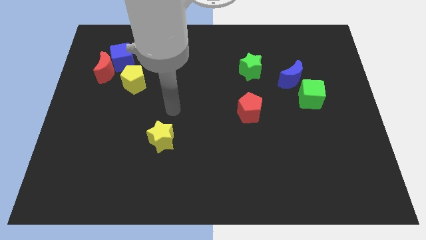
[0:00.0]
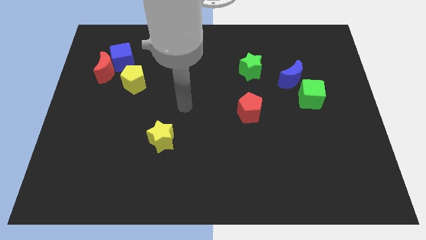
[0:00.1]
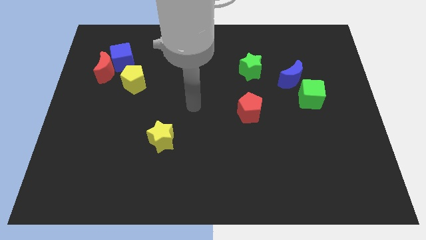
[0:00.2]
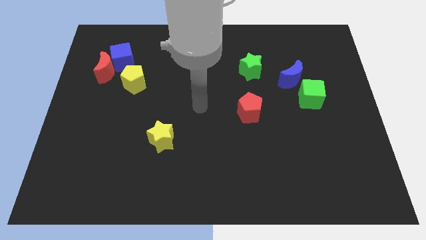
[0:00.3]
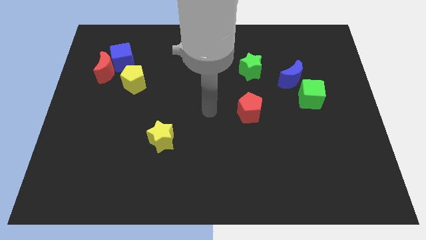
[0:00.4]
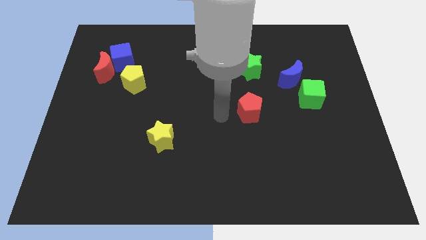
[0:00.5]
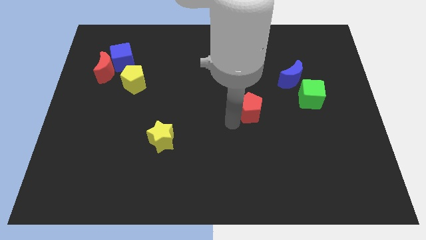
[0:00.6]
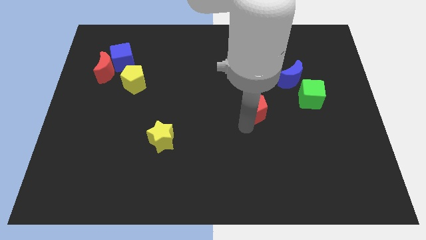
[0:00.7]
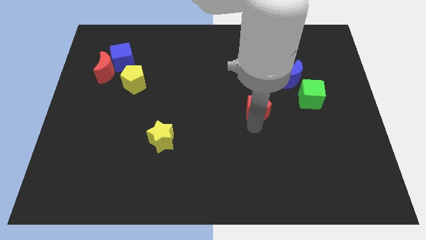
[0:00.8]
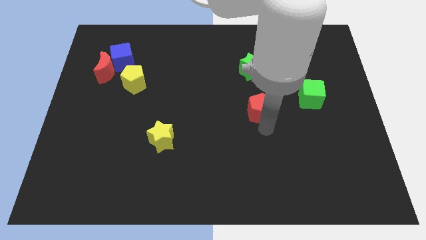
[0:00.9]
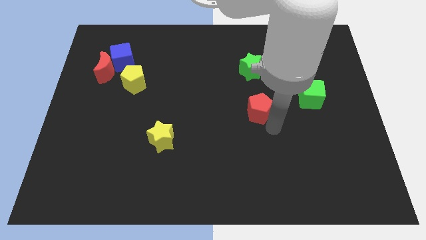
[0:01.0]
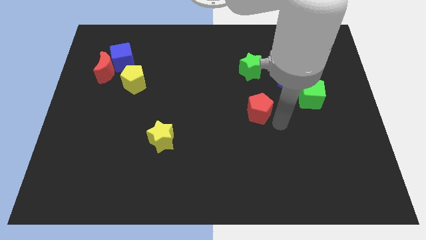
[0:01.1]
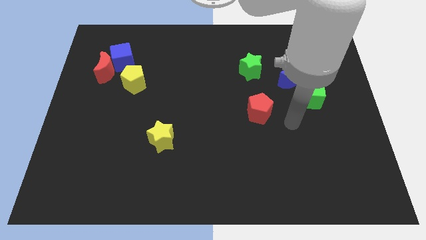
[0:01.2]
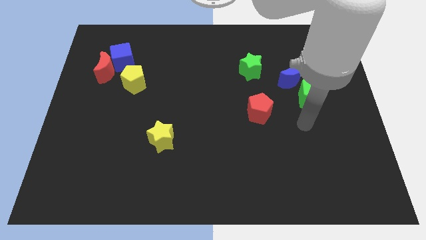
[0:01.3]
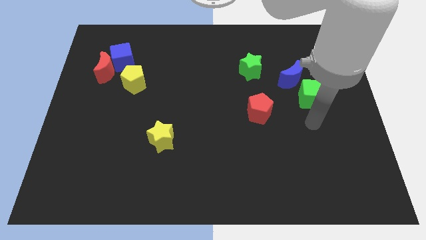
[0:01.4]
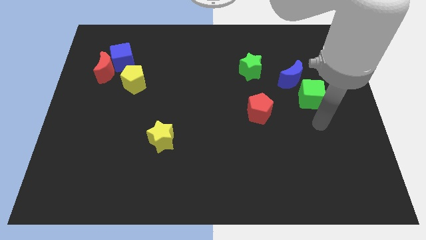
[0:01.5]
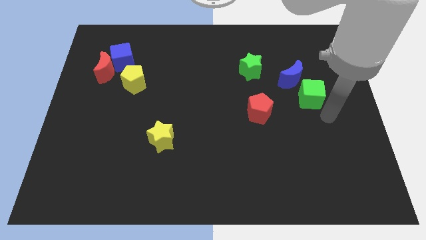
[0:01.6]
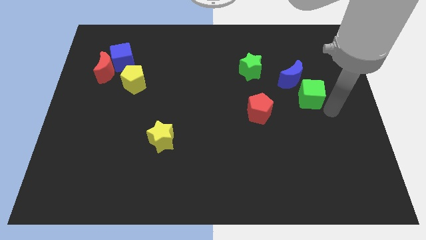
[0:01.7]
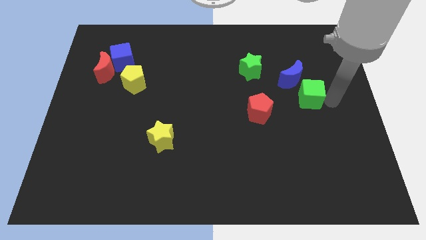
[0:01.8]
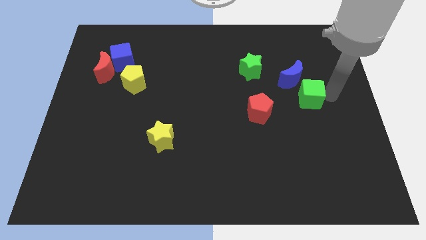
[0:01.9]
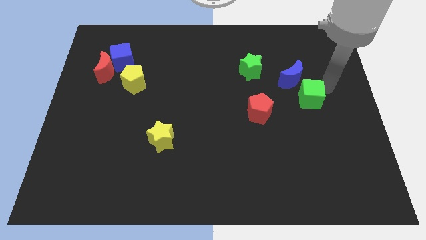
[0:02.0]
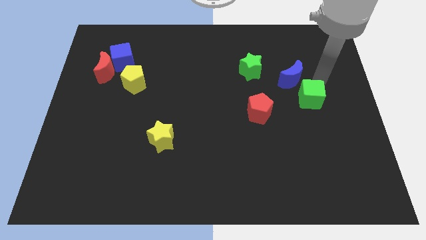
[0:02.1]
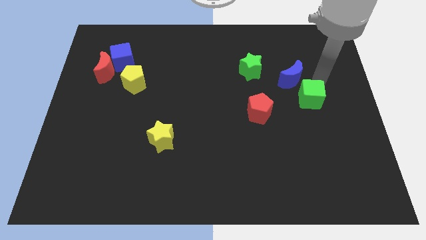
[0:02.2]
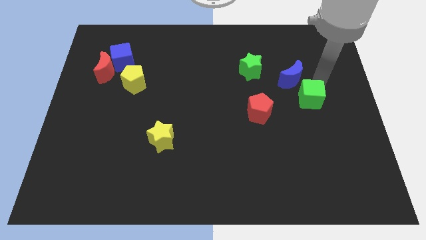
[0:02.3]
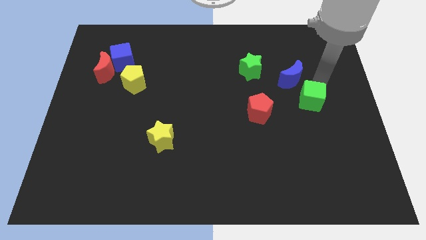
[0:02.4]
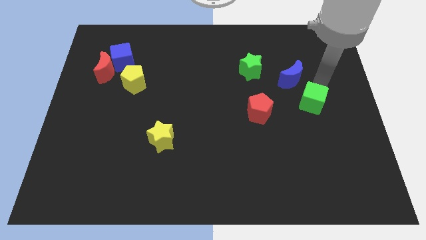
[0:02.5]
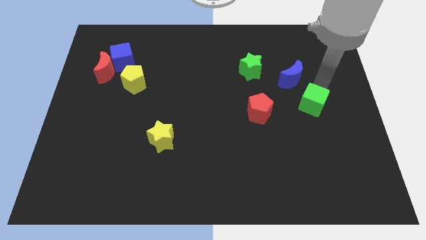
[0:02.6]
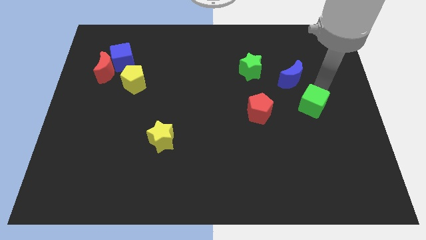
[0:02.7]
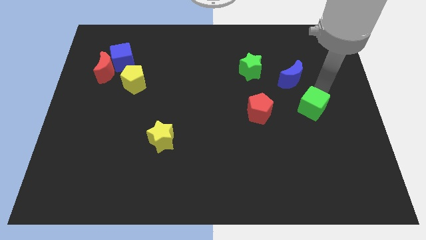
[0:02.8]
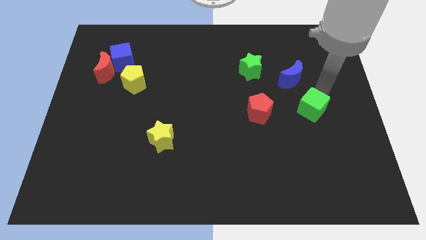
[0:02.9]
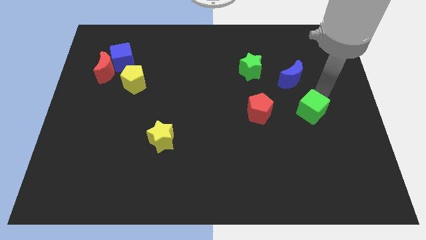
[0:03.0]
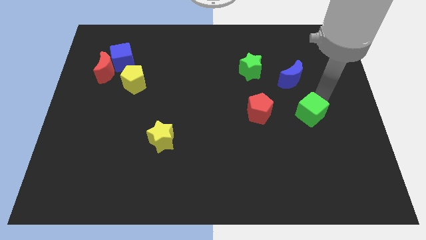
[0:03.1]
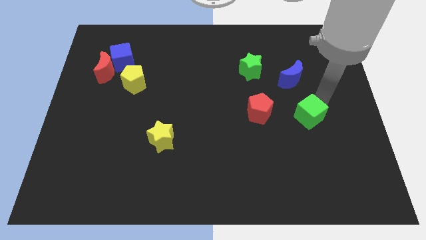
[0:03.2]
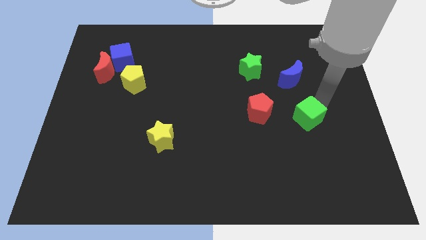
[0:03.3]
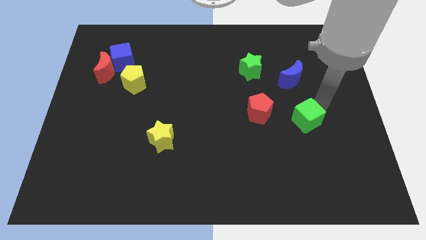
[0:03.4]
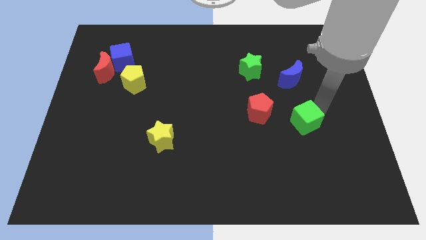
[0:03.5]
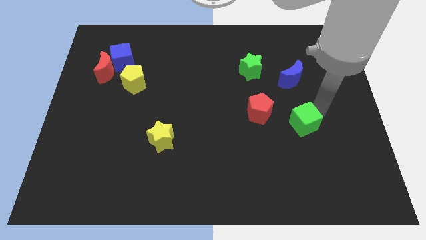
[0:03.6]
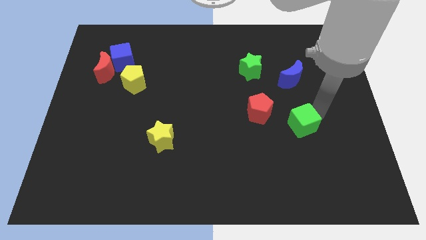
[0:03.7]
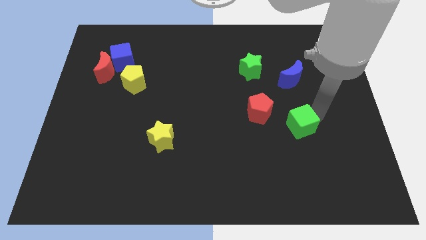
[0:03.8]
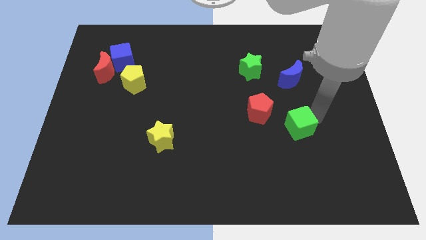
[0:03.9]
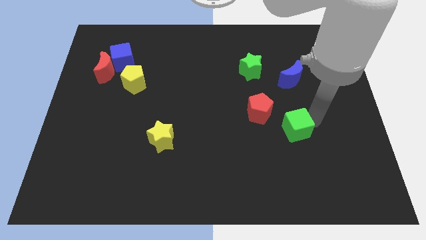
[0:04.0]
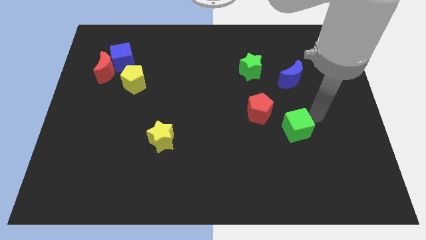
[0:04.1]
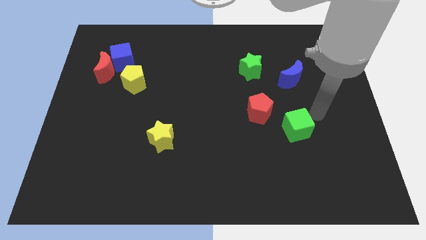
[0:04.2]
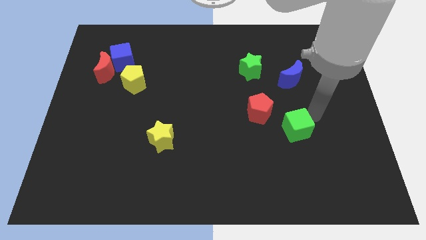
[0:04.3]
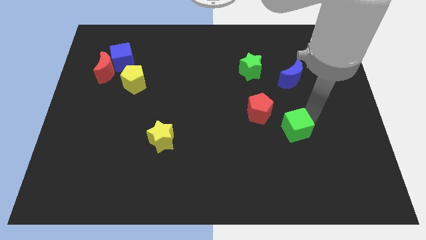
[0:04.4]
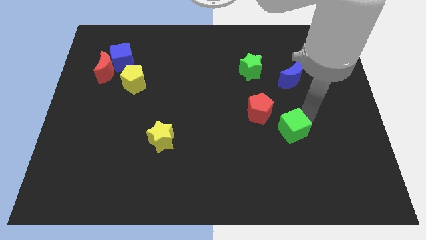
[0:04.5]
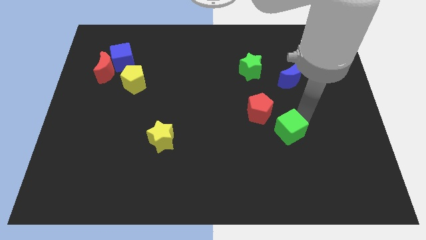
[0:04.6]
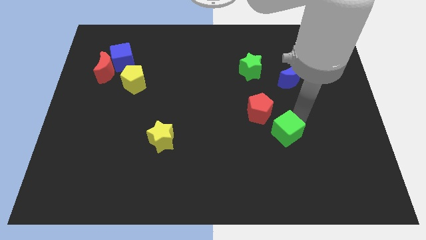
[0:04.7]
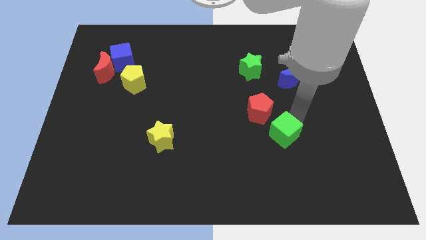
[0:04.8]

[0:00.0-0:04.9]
push the green cube to the bottom side of the red pentagon

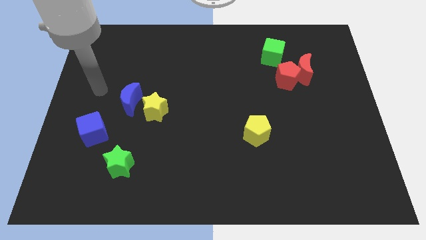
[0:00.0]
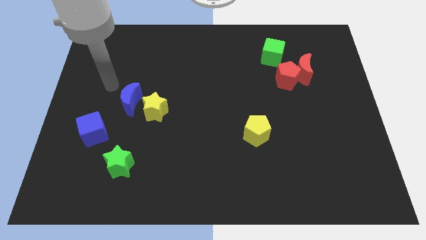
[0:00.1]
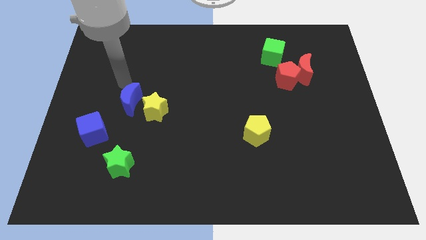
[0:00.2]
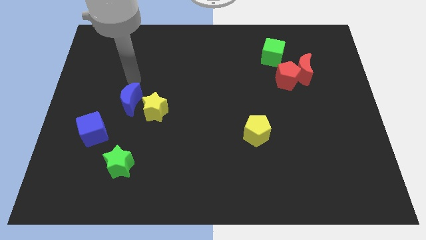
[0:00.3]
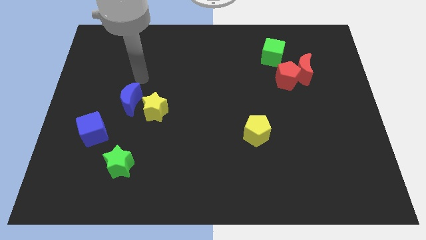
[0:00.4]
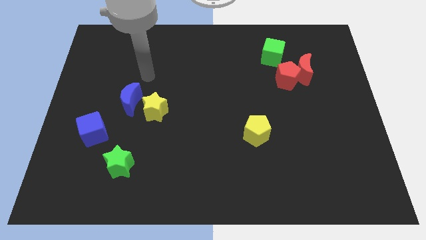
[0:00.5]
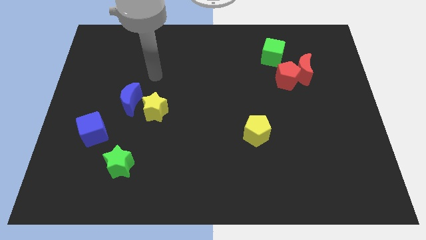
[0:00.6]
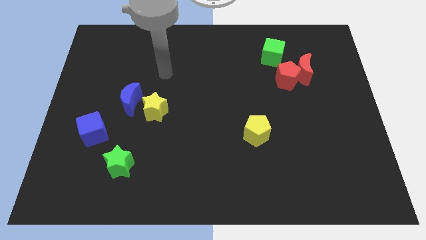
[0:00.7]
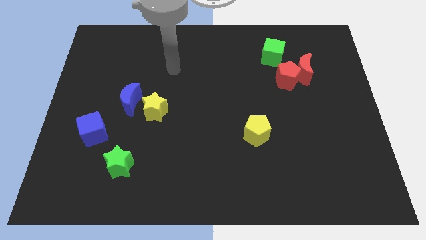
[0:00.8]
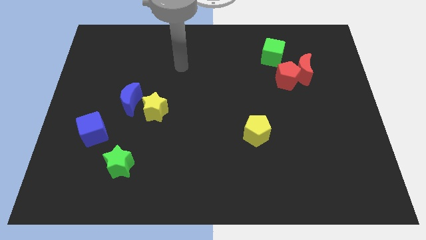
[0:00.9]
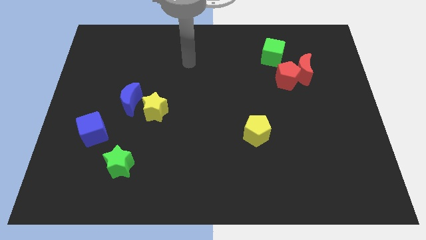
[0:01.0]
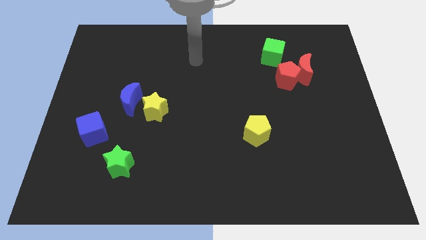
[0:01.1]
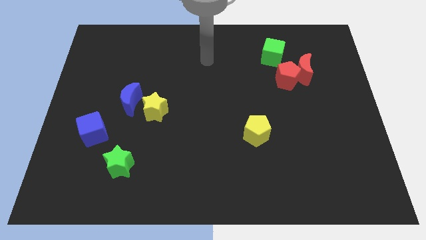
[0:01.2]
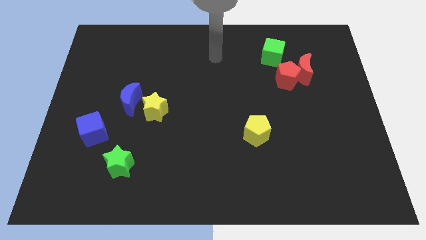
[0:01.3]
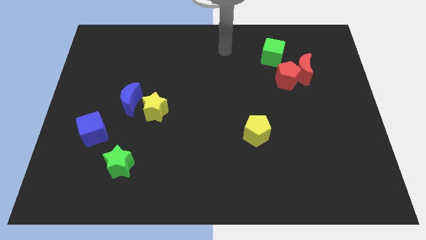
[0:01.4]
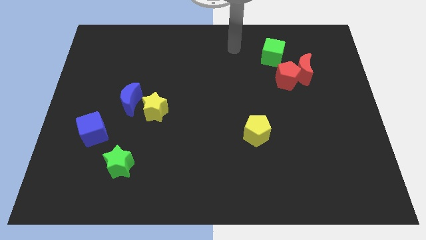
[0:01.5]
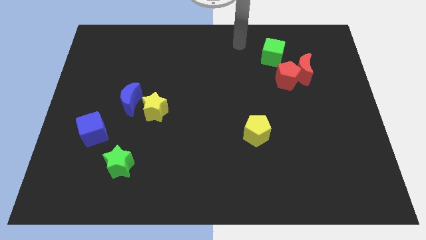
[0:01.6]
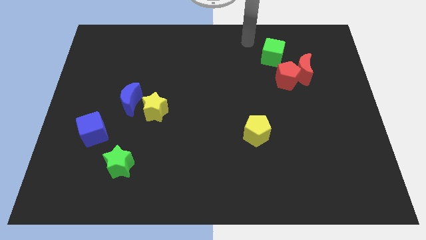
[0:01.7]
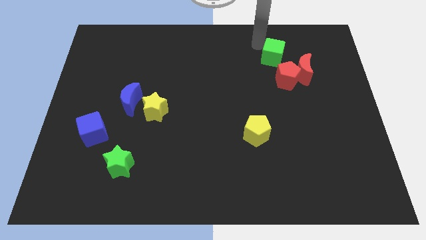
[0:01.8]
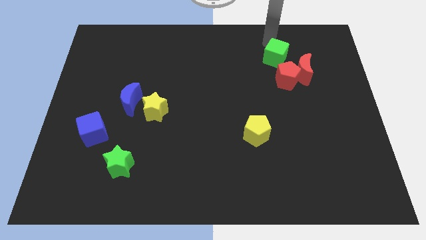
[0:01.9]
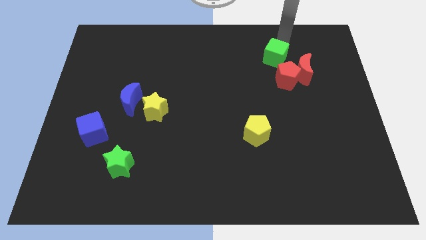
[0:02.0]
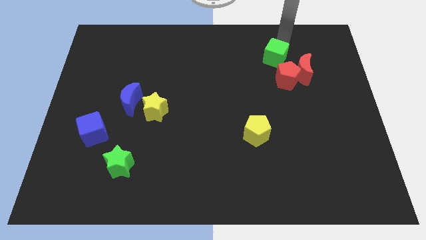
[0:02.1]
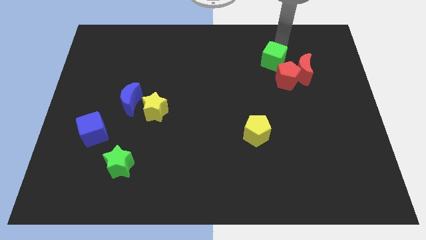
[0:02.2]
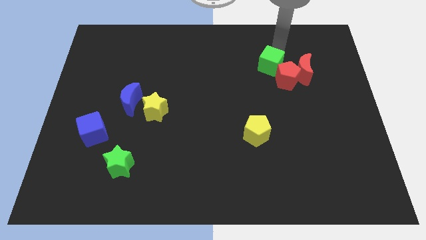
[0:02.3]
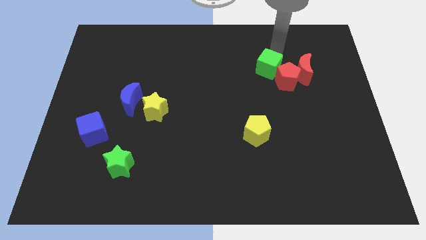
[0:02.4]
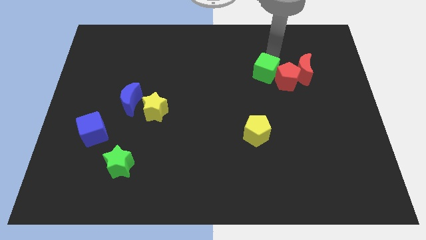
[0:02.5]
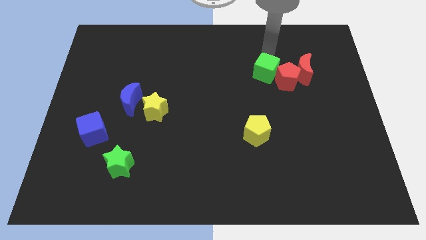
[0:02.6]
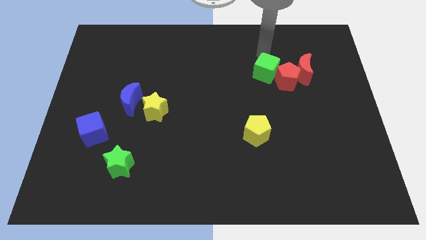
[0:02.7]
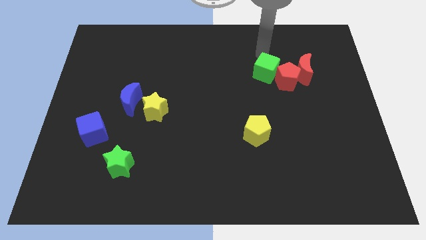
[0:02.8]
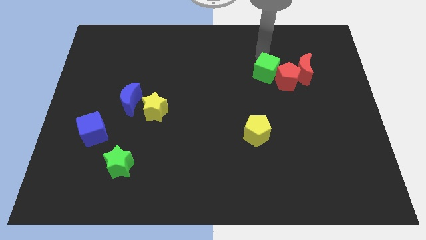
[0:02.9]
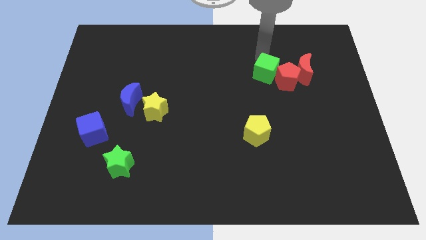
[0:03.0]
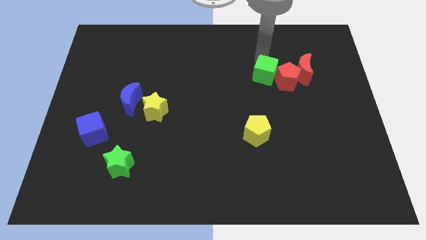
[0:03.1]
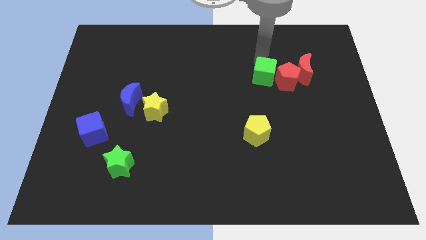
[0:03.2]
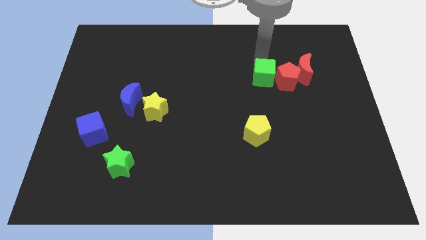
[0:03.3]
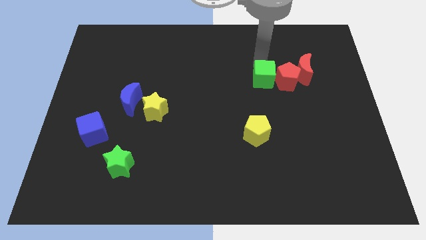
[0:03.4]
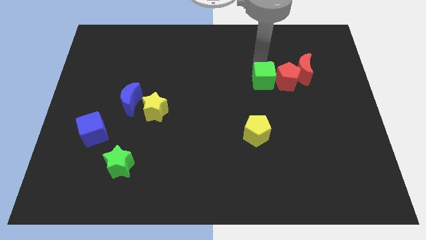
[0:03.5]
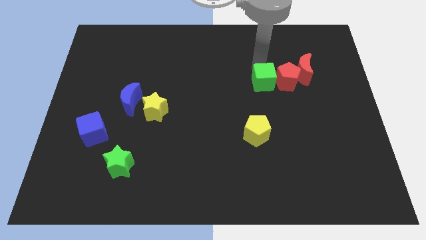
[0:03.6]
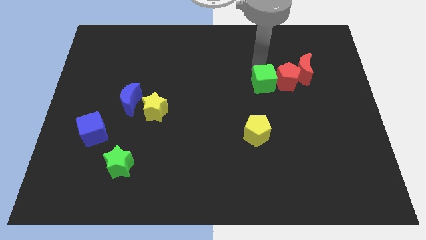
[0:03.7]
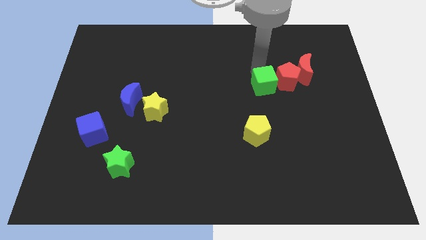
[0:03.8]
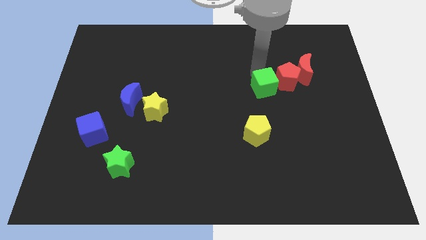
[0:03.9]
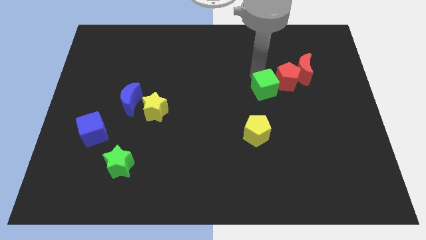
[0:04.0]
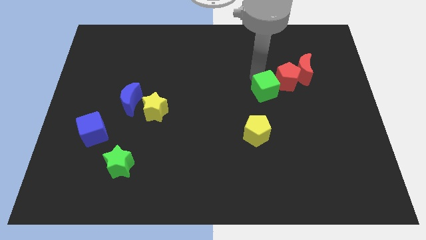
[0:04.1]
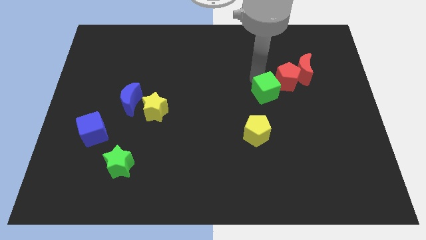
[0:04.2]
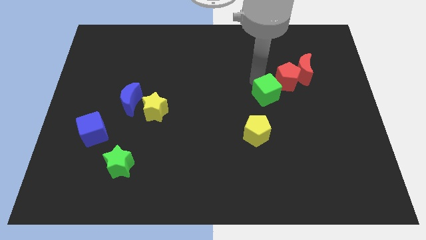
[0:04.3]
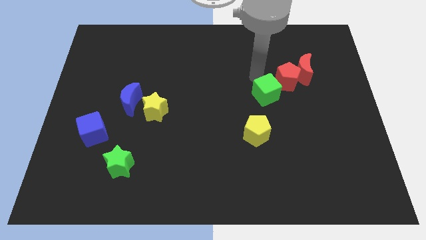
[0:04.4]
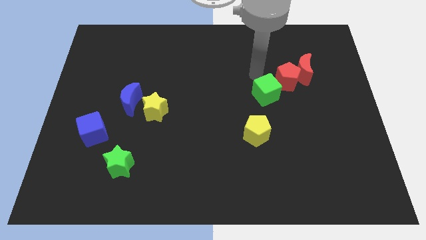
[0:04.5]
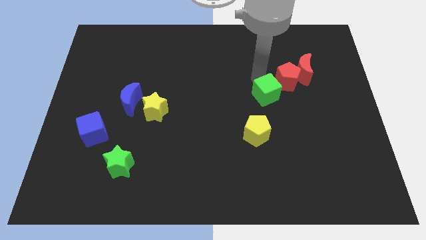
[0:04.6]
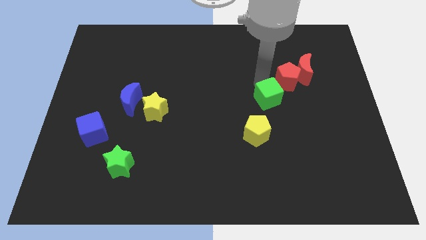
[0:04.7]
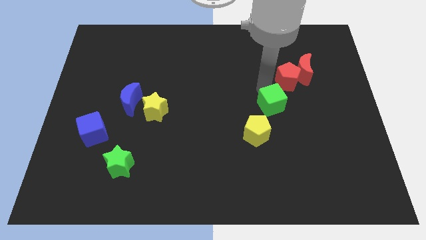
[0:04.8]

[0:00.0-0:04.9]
push the green cube to the top right side of the yellow pentagon
